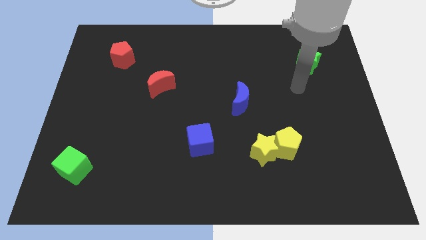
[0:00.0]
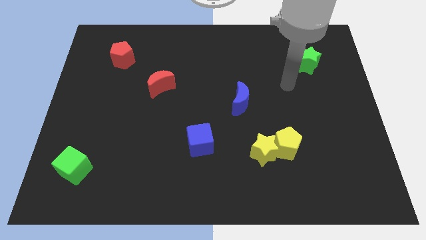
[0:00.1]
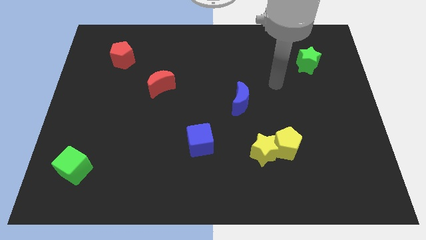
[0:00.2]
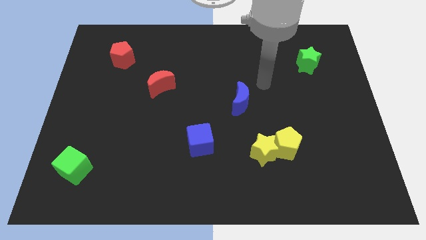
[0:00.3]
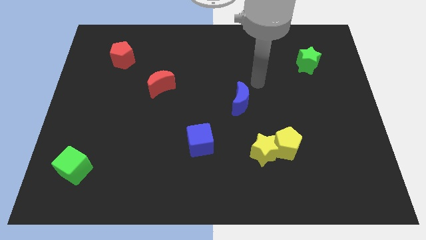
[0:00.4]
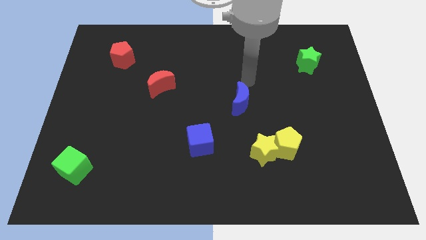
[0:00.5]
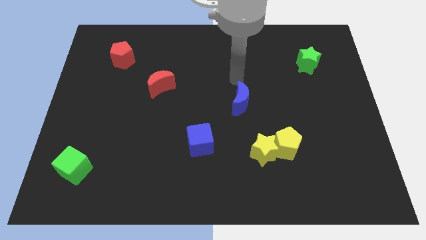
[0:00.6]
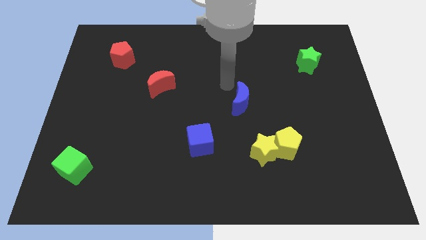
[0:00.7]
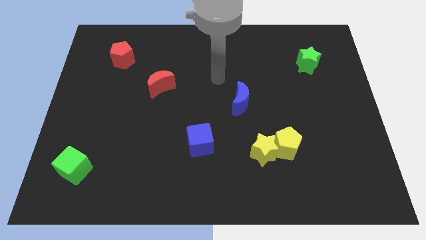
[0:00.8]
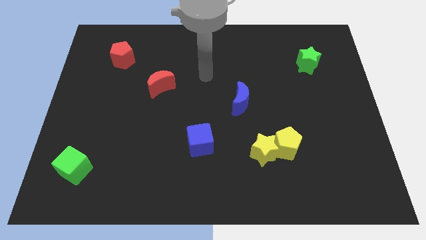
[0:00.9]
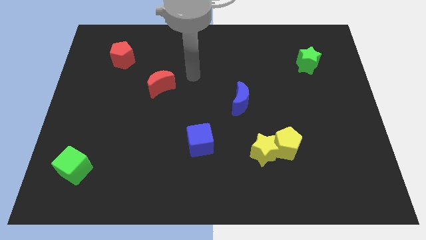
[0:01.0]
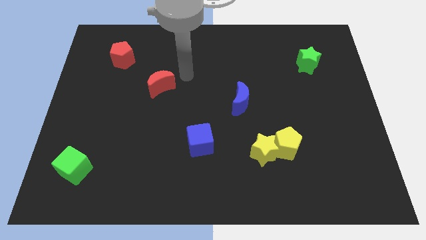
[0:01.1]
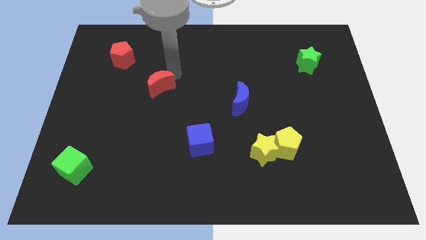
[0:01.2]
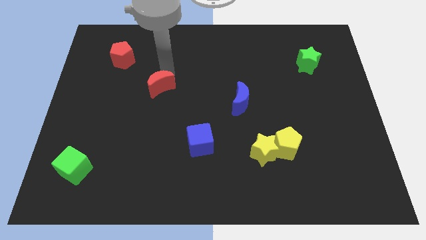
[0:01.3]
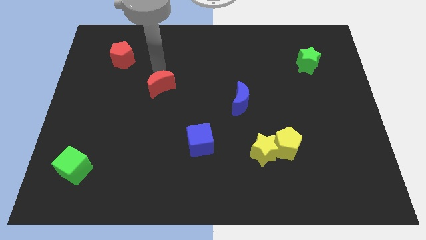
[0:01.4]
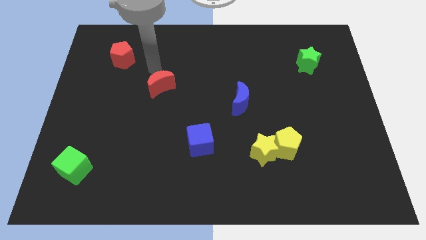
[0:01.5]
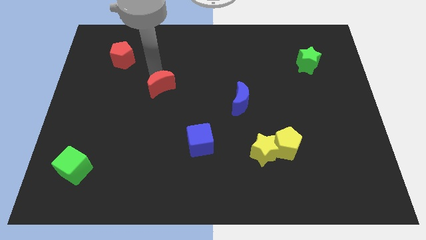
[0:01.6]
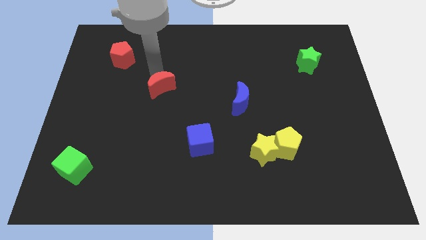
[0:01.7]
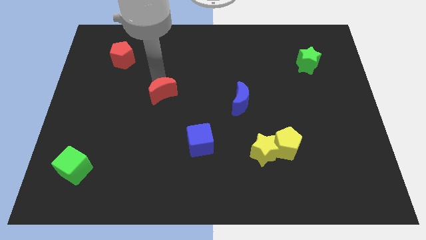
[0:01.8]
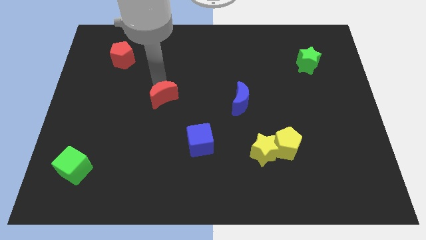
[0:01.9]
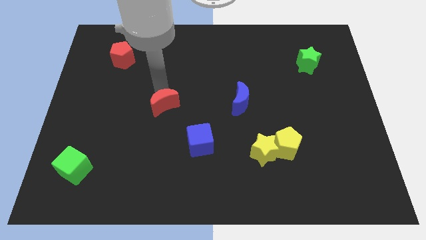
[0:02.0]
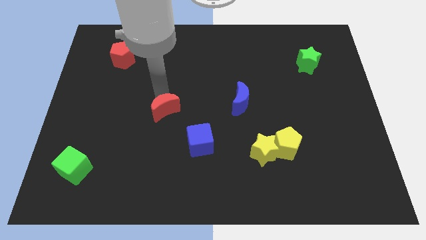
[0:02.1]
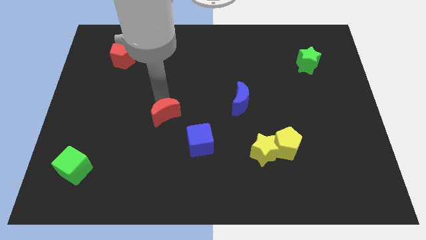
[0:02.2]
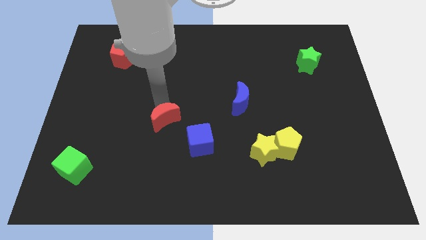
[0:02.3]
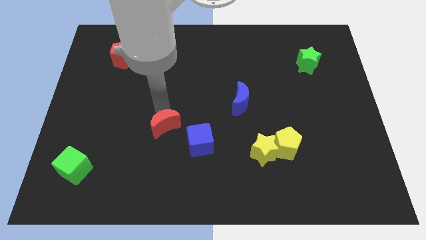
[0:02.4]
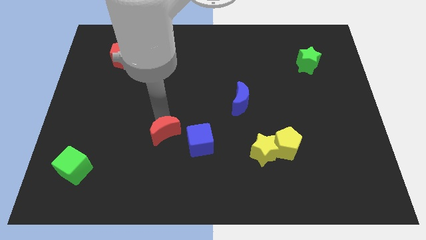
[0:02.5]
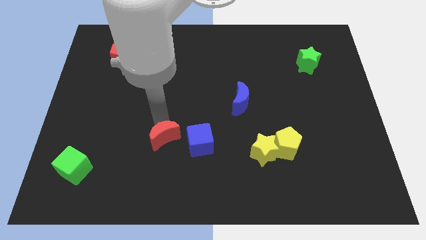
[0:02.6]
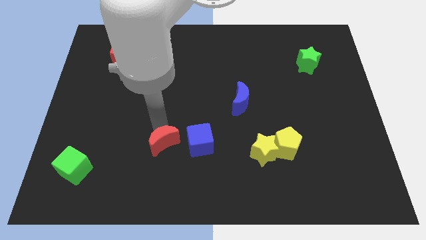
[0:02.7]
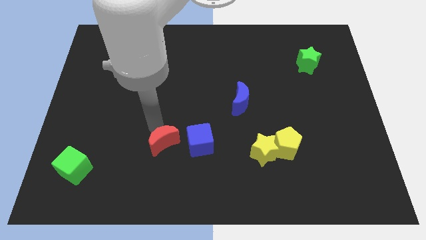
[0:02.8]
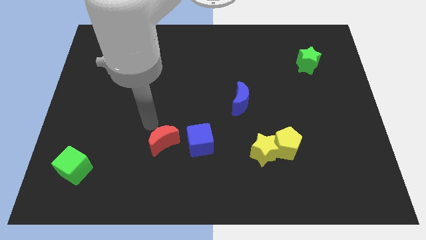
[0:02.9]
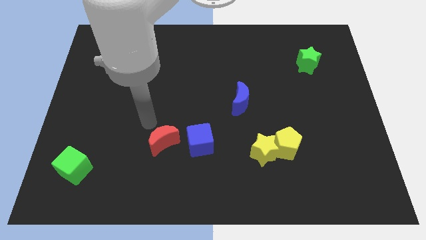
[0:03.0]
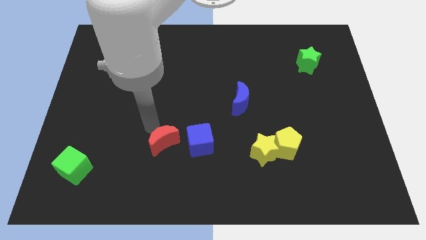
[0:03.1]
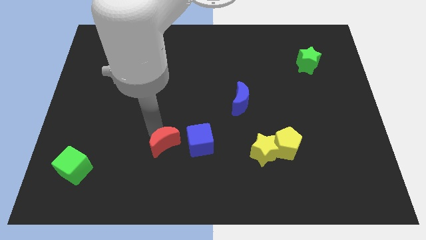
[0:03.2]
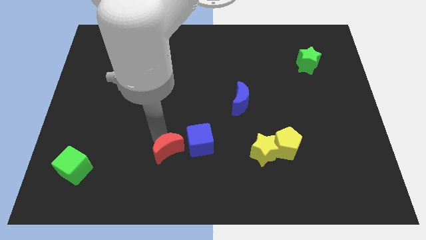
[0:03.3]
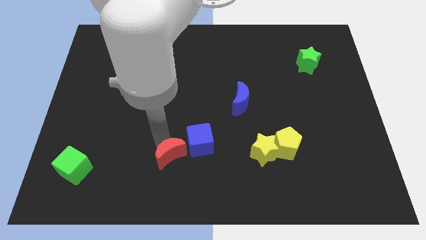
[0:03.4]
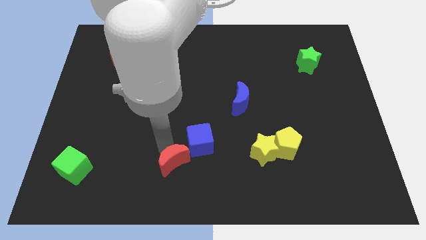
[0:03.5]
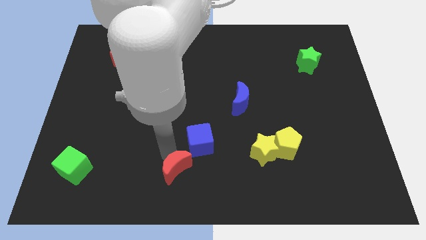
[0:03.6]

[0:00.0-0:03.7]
push the red moon to the bottom

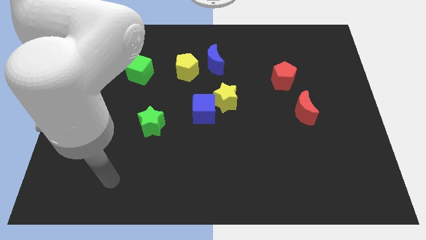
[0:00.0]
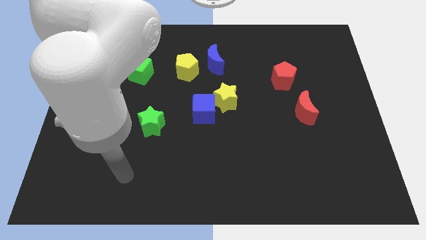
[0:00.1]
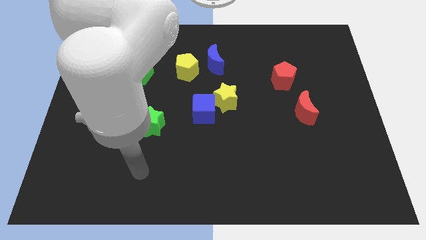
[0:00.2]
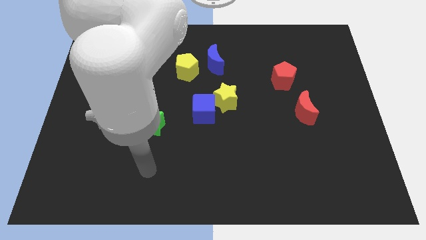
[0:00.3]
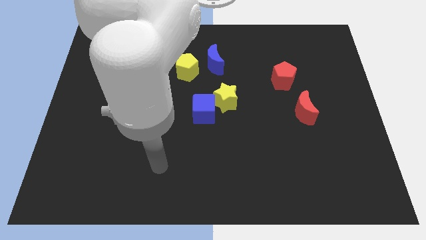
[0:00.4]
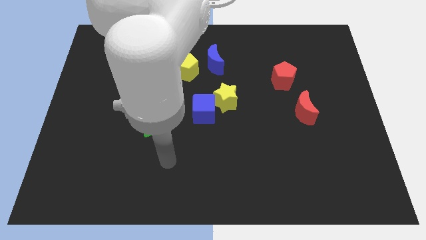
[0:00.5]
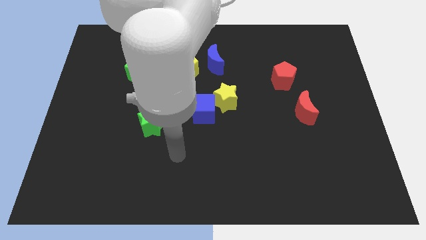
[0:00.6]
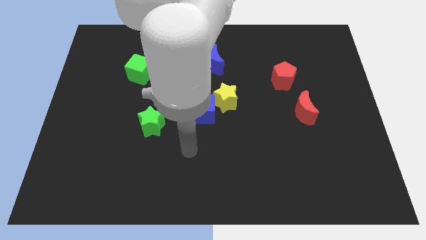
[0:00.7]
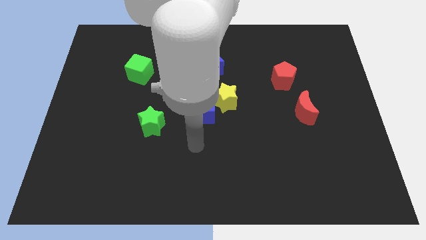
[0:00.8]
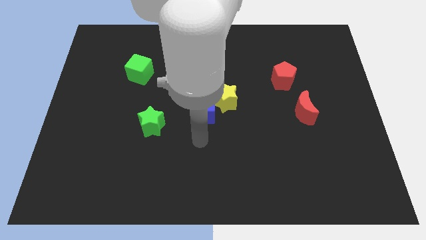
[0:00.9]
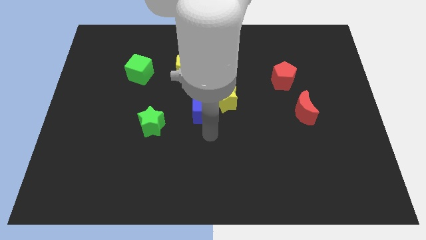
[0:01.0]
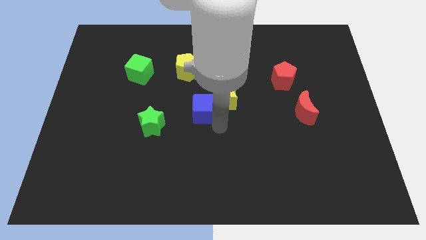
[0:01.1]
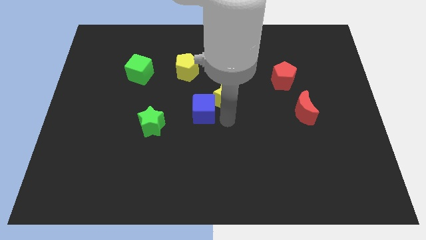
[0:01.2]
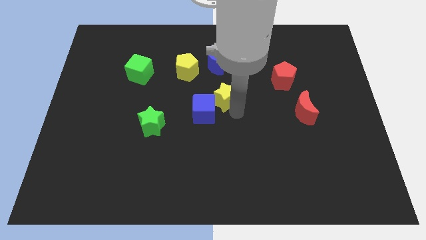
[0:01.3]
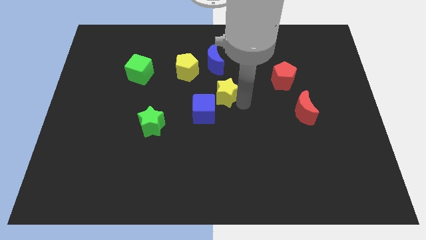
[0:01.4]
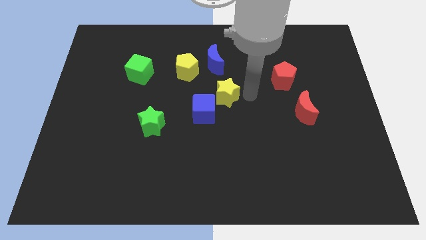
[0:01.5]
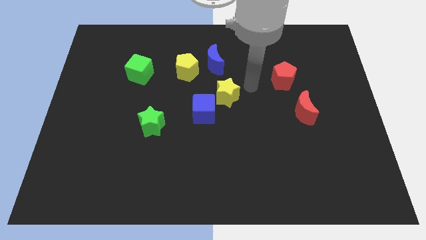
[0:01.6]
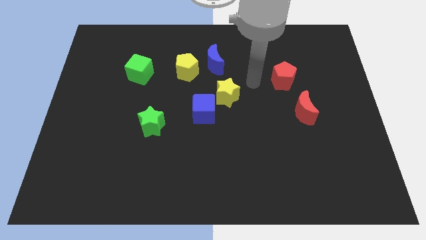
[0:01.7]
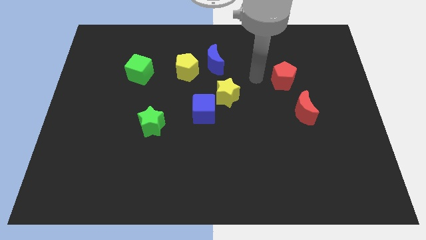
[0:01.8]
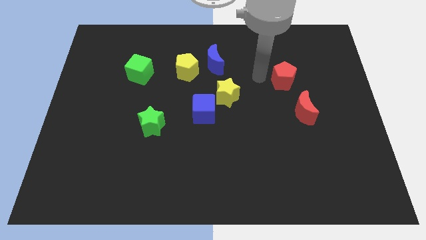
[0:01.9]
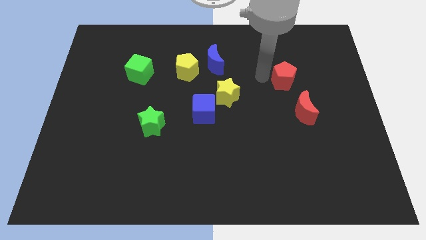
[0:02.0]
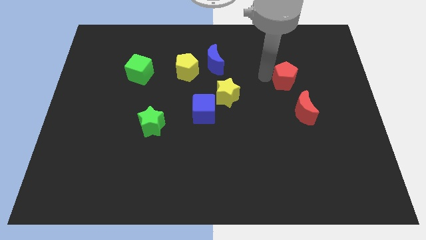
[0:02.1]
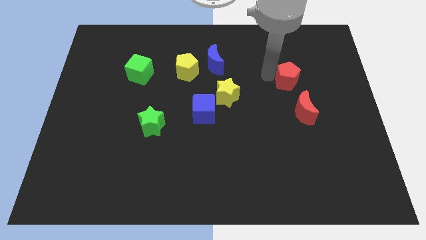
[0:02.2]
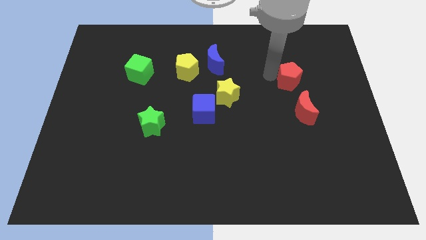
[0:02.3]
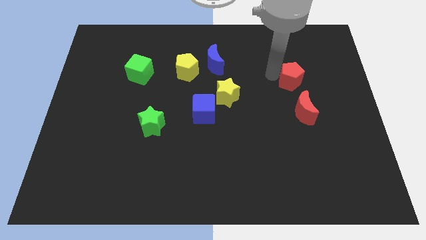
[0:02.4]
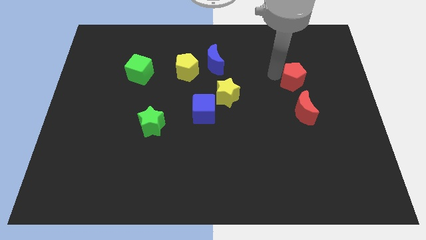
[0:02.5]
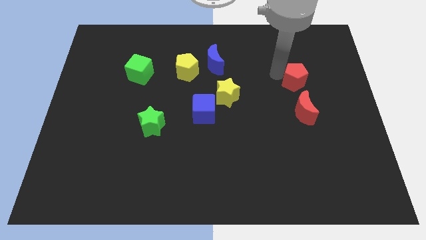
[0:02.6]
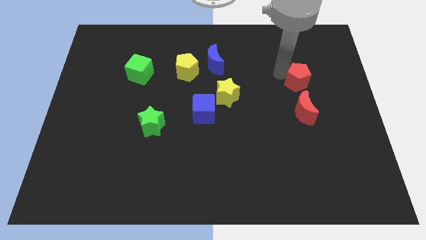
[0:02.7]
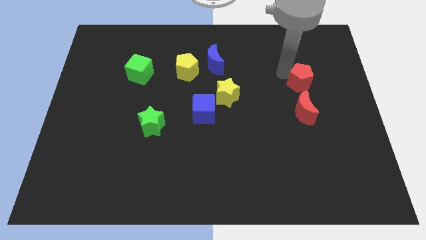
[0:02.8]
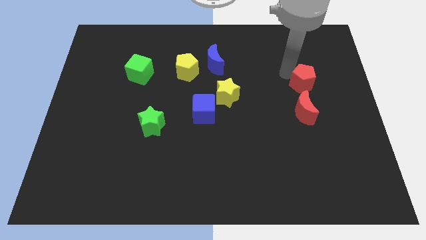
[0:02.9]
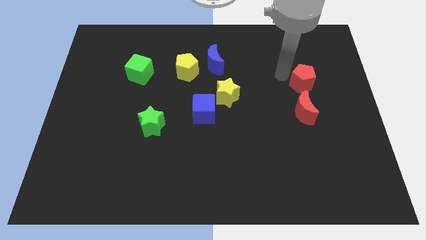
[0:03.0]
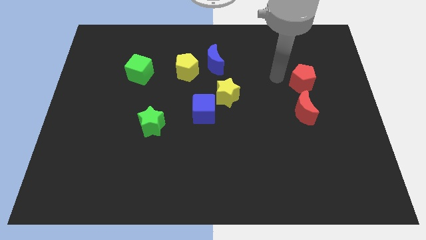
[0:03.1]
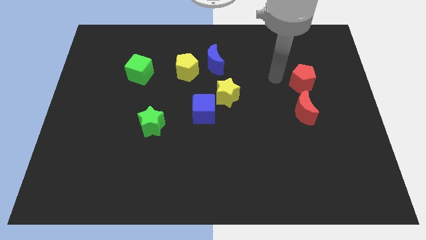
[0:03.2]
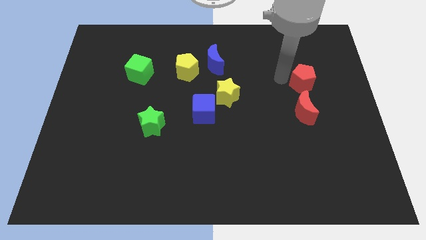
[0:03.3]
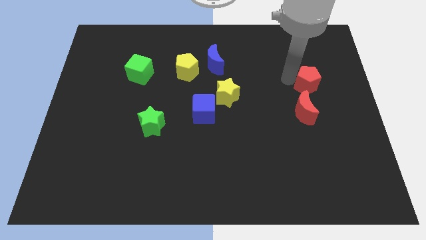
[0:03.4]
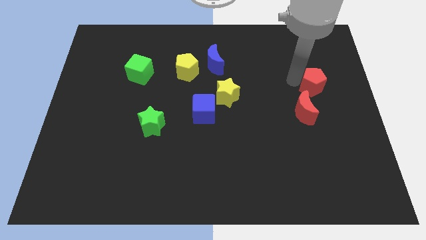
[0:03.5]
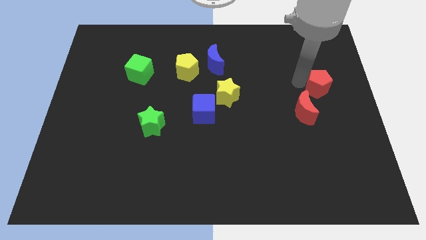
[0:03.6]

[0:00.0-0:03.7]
move the red pentagon to the center right

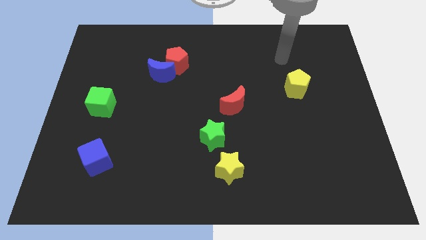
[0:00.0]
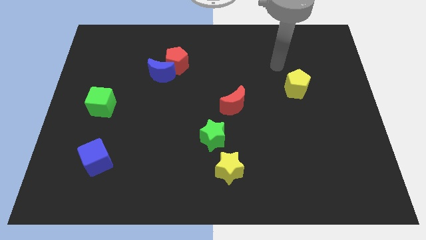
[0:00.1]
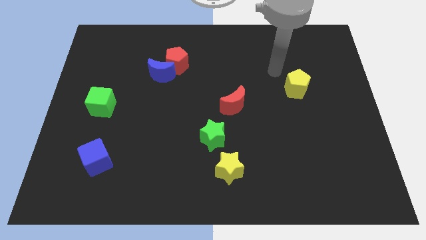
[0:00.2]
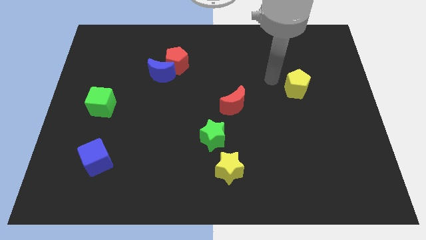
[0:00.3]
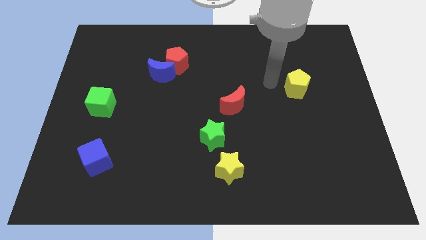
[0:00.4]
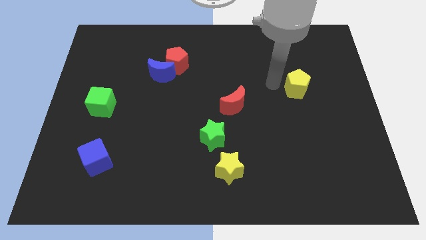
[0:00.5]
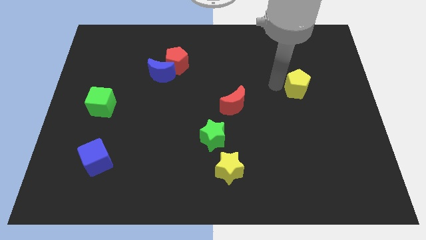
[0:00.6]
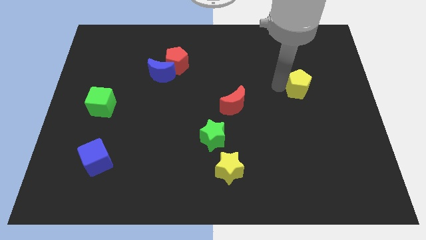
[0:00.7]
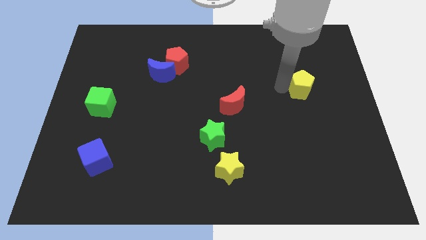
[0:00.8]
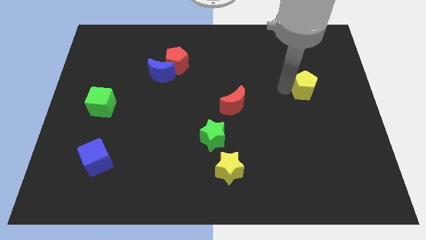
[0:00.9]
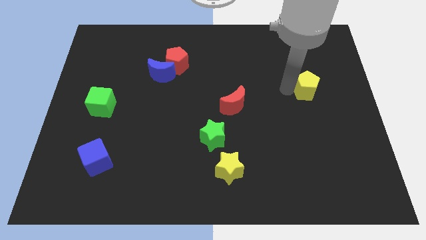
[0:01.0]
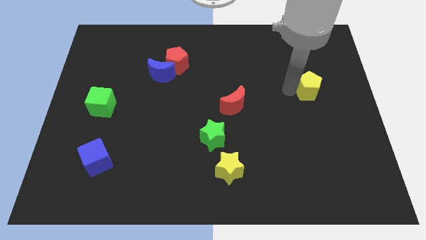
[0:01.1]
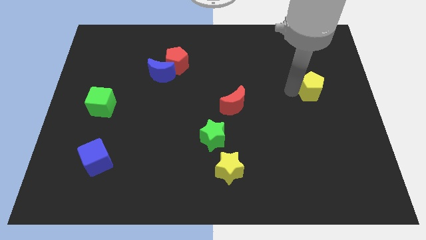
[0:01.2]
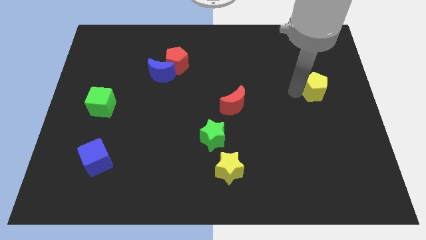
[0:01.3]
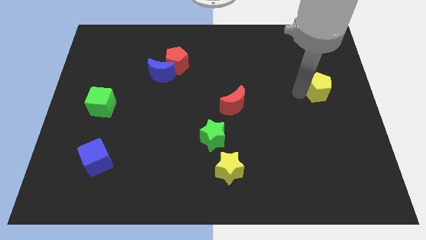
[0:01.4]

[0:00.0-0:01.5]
slide the yellow pentagon to the right side
